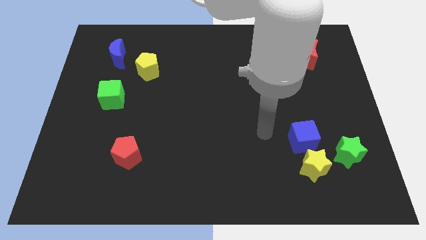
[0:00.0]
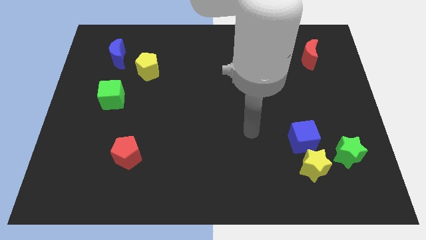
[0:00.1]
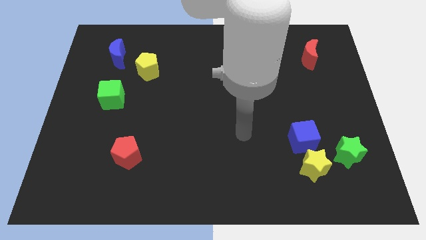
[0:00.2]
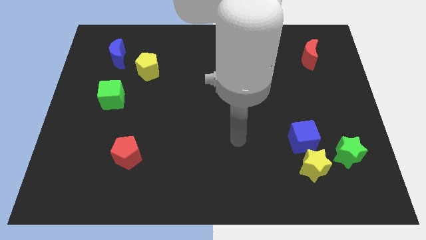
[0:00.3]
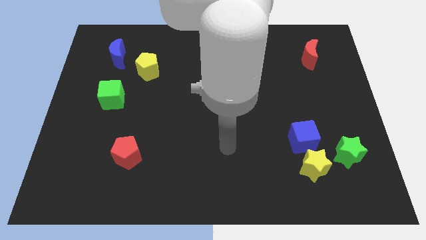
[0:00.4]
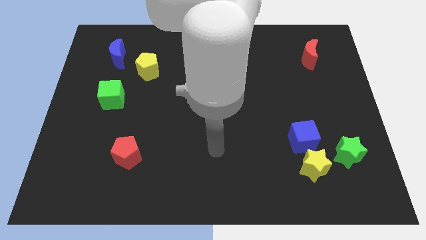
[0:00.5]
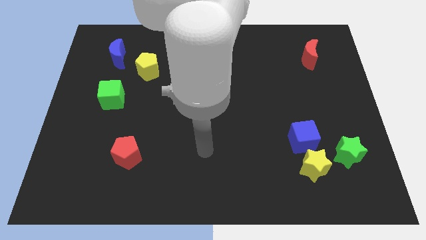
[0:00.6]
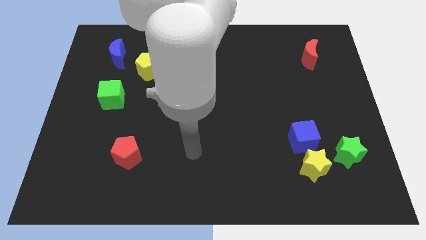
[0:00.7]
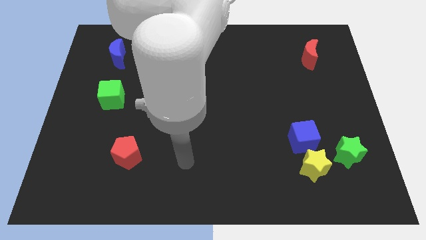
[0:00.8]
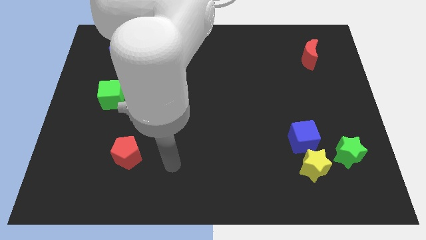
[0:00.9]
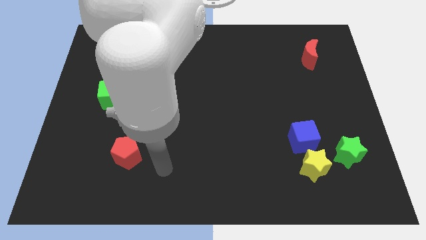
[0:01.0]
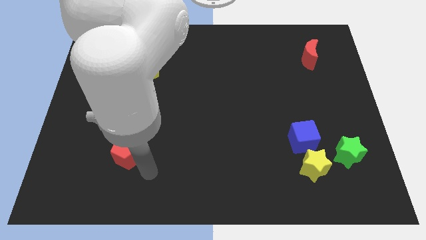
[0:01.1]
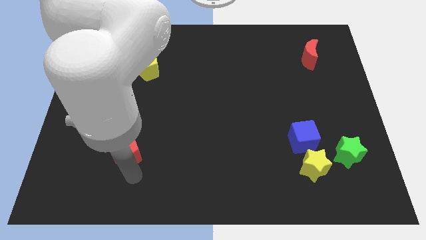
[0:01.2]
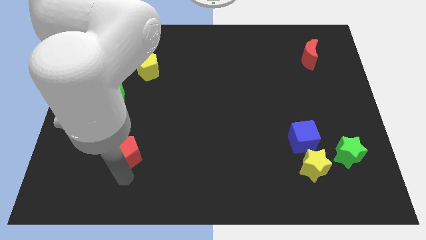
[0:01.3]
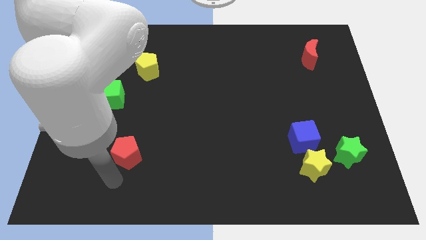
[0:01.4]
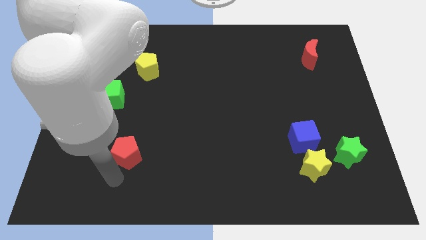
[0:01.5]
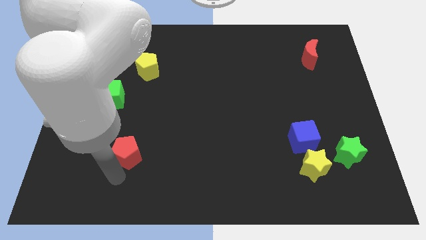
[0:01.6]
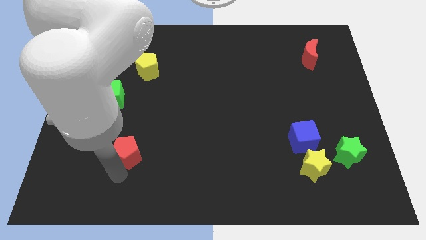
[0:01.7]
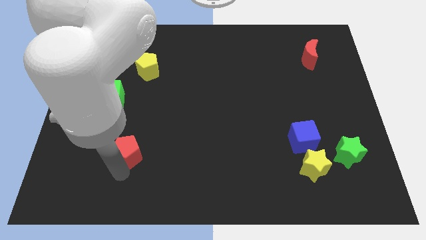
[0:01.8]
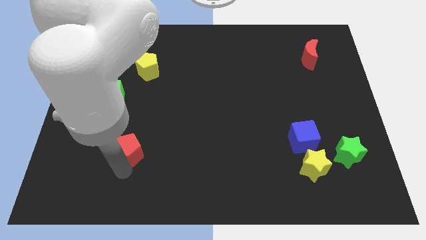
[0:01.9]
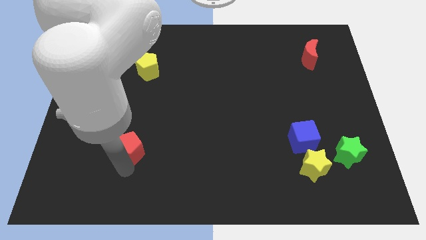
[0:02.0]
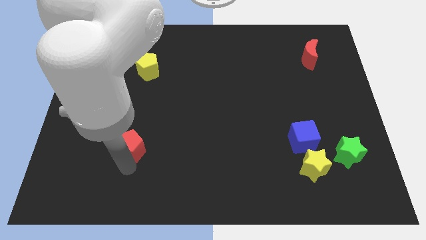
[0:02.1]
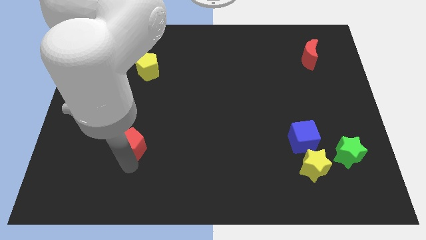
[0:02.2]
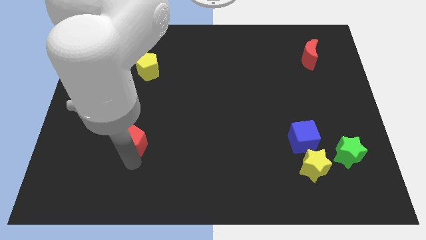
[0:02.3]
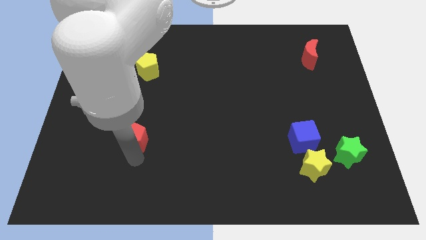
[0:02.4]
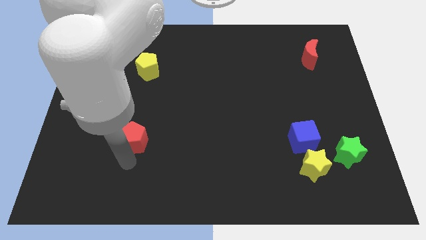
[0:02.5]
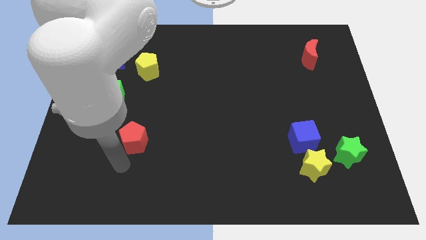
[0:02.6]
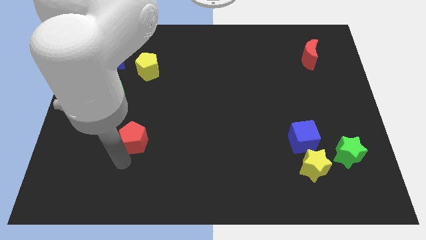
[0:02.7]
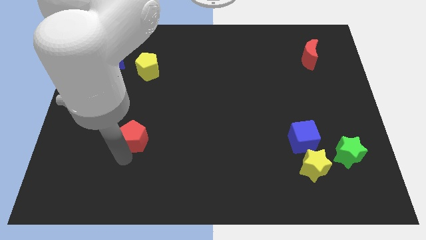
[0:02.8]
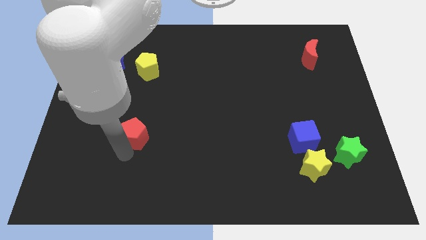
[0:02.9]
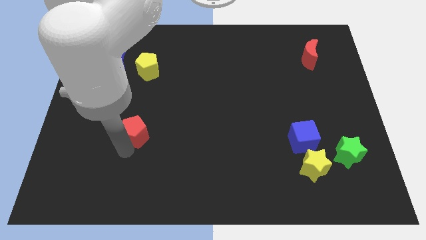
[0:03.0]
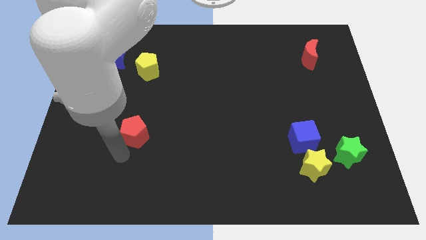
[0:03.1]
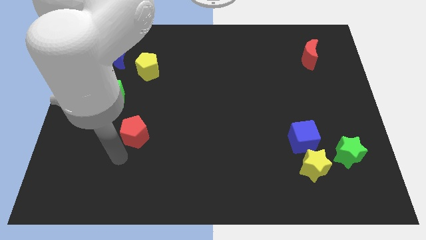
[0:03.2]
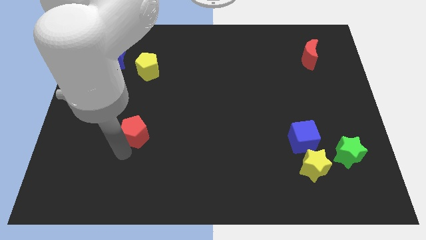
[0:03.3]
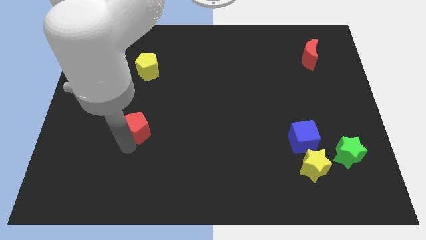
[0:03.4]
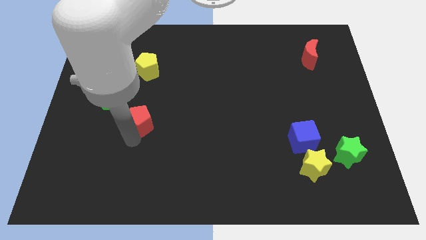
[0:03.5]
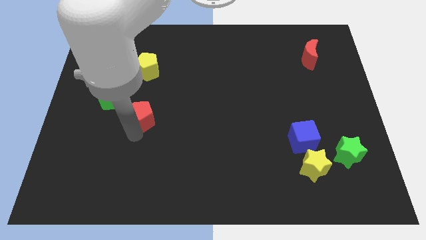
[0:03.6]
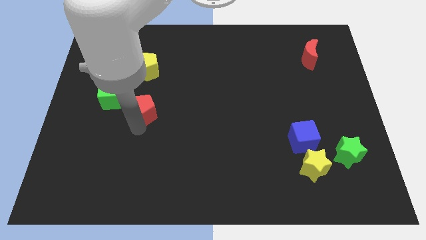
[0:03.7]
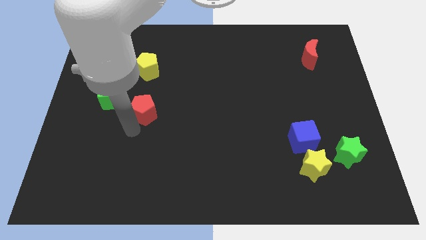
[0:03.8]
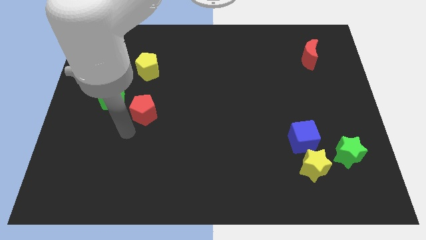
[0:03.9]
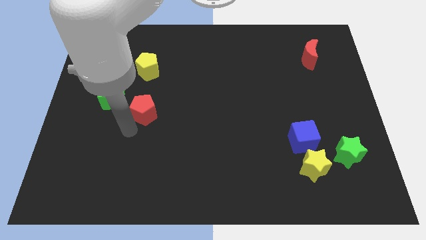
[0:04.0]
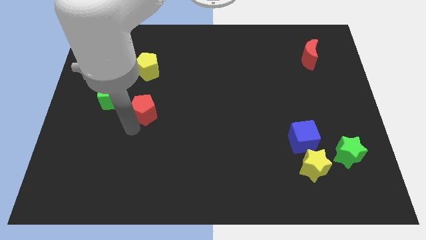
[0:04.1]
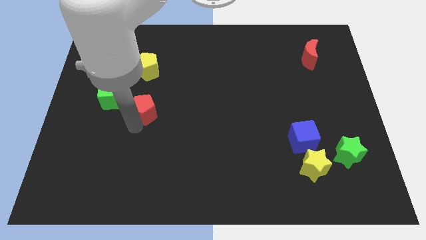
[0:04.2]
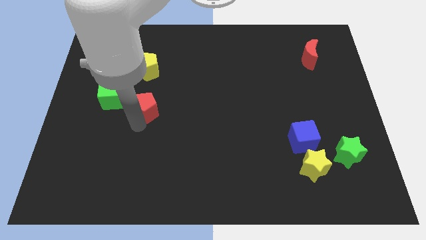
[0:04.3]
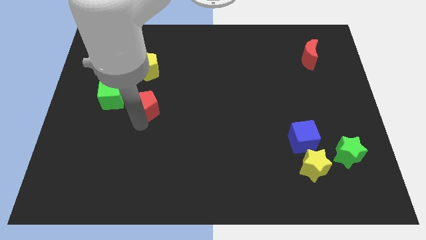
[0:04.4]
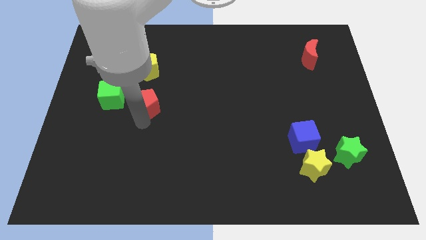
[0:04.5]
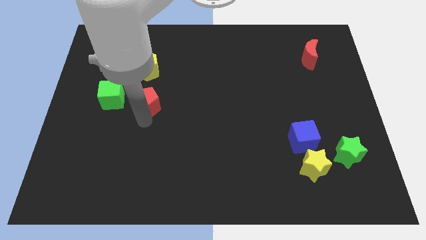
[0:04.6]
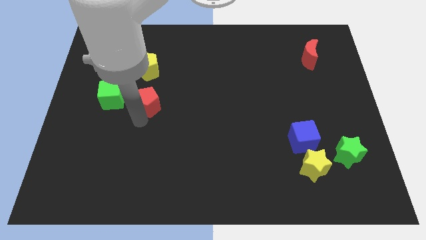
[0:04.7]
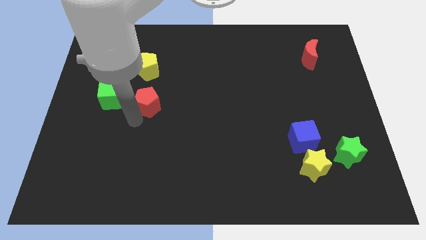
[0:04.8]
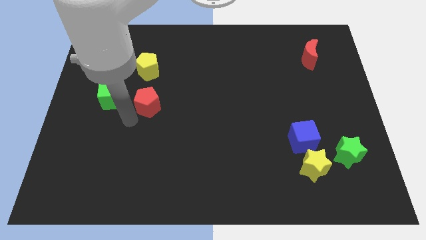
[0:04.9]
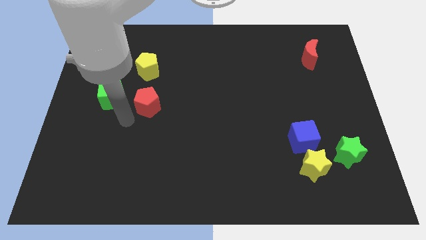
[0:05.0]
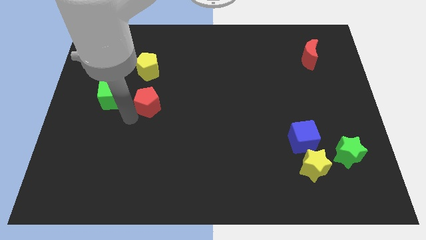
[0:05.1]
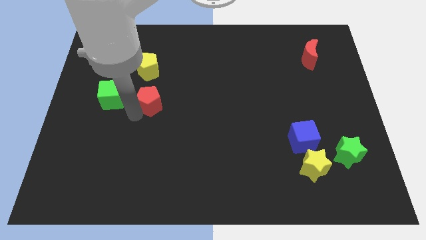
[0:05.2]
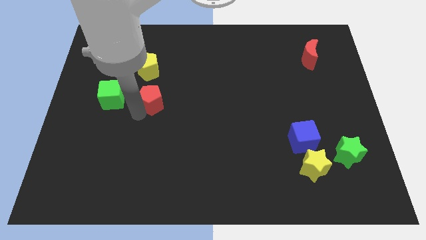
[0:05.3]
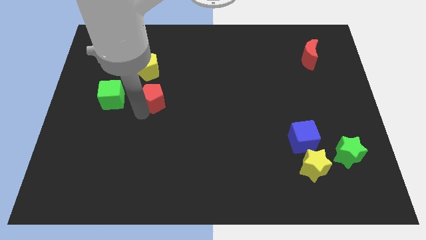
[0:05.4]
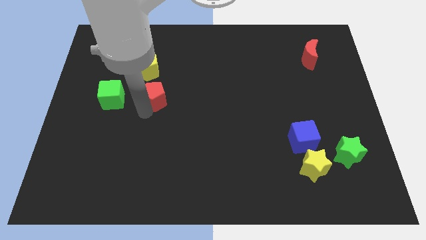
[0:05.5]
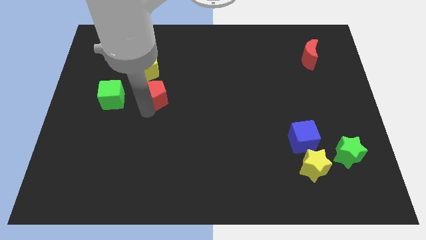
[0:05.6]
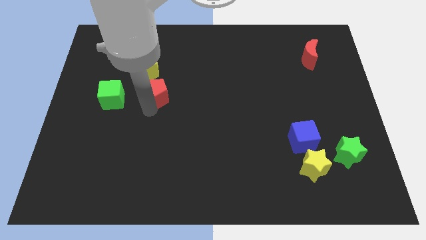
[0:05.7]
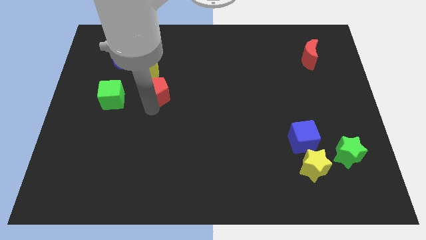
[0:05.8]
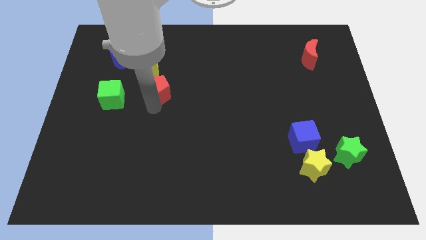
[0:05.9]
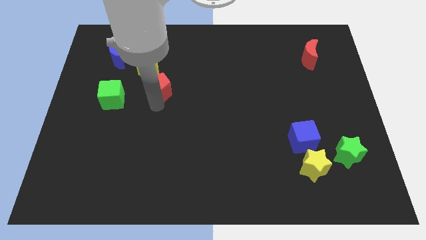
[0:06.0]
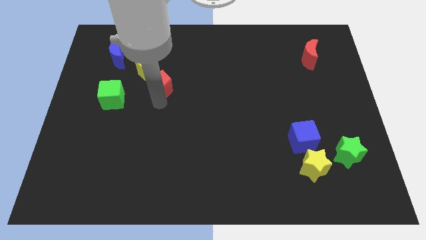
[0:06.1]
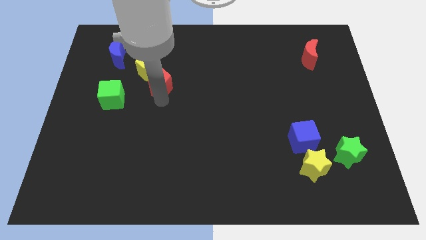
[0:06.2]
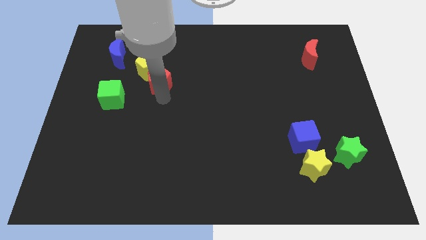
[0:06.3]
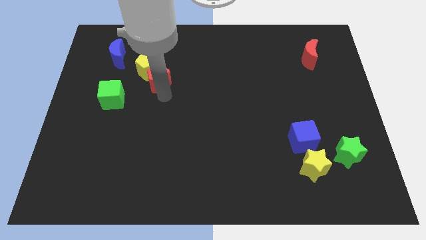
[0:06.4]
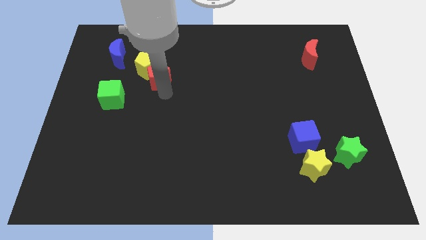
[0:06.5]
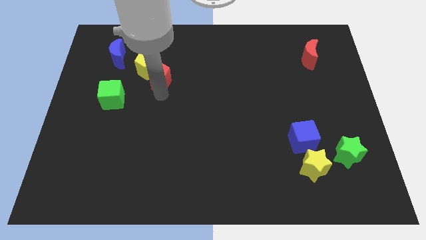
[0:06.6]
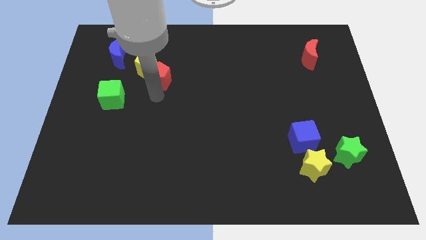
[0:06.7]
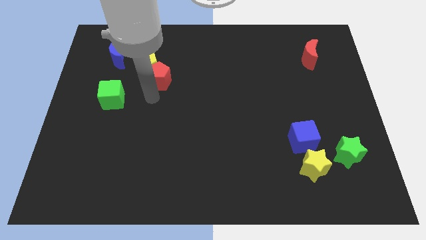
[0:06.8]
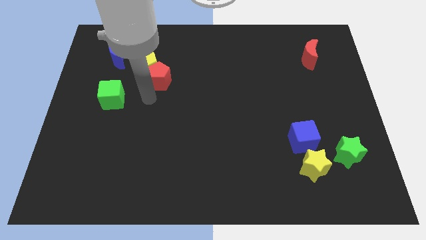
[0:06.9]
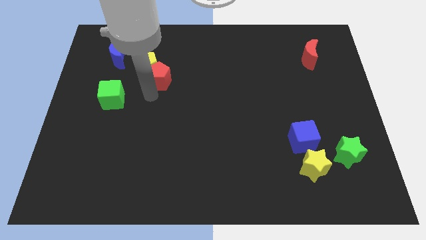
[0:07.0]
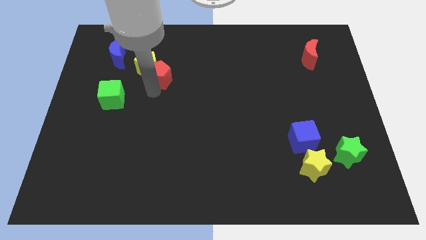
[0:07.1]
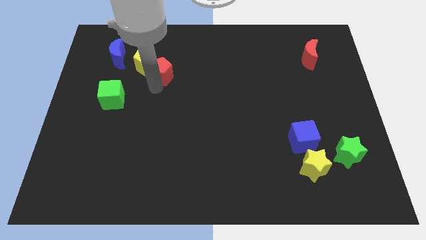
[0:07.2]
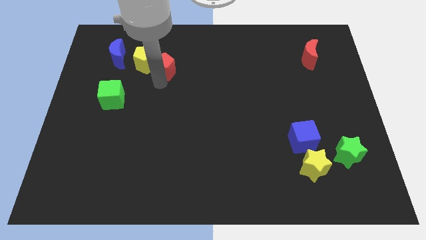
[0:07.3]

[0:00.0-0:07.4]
push the red pentagon to the right of the blue moon
